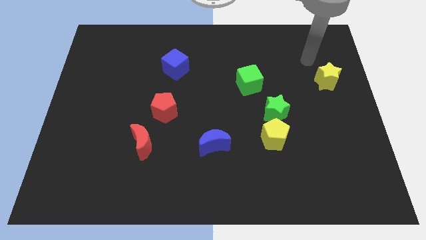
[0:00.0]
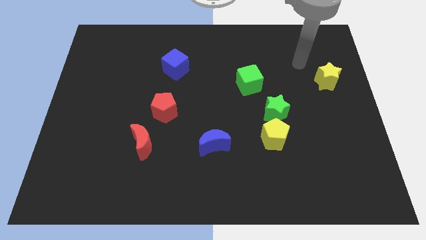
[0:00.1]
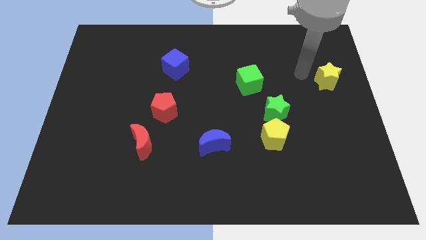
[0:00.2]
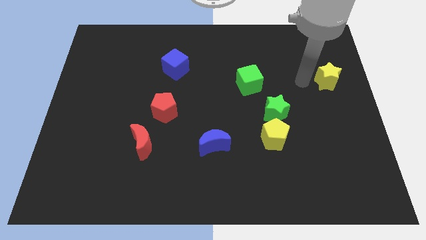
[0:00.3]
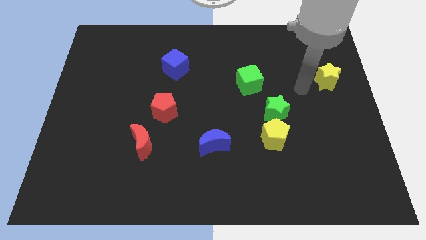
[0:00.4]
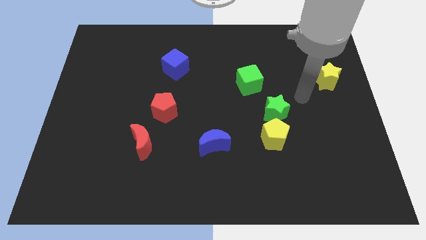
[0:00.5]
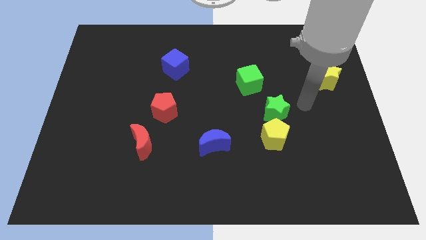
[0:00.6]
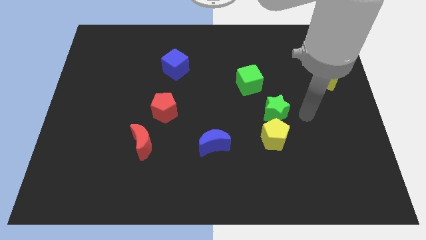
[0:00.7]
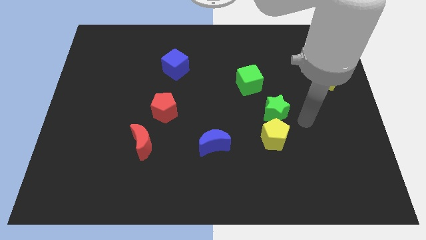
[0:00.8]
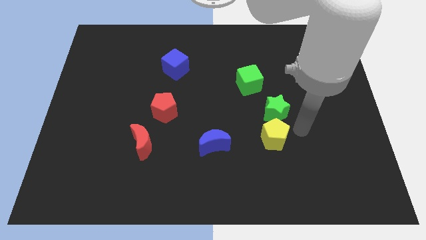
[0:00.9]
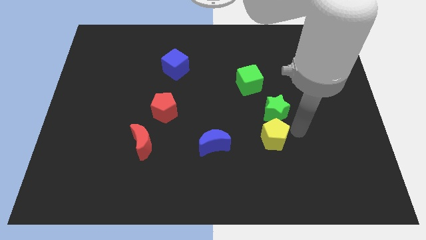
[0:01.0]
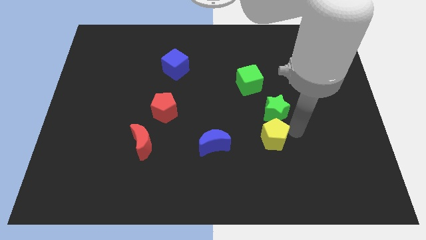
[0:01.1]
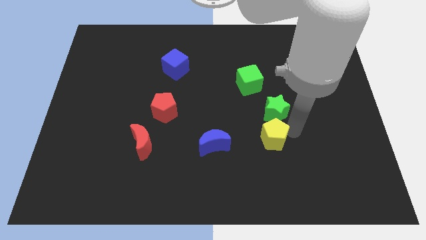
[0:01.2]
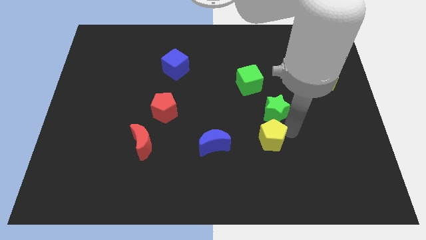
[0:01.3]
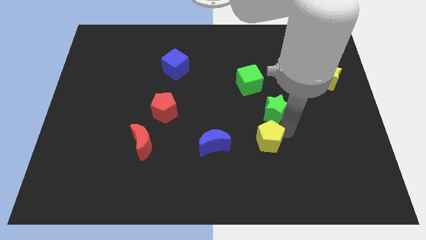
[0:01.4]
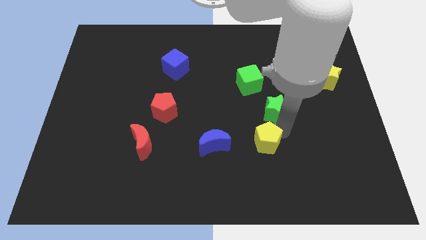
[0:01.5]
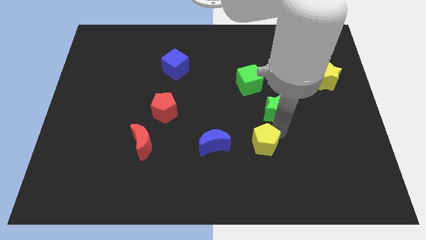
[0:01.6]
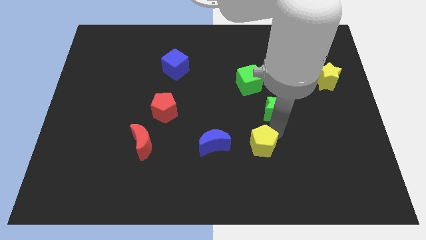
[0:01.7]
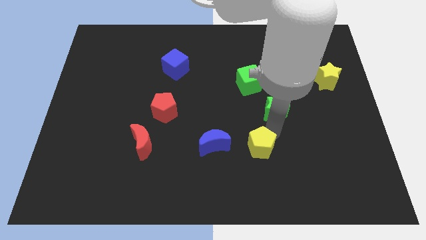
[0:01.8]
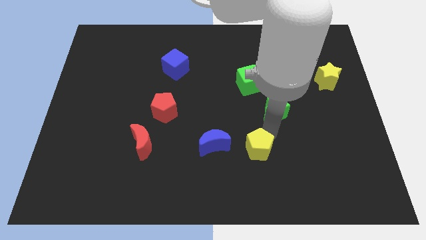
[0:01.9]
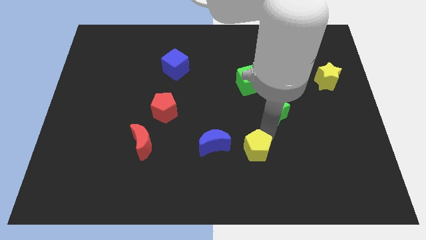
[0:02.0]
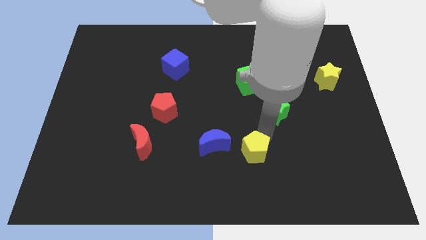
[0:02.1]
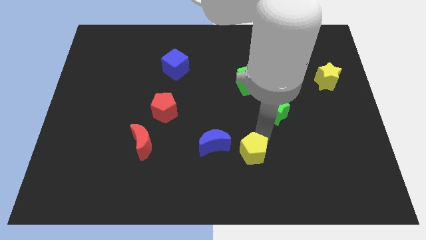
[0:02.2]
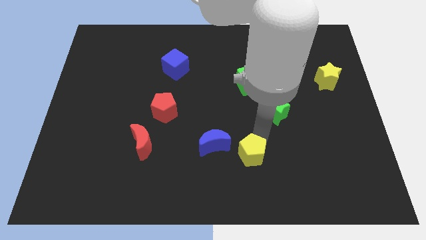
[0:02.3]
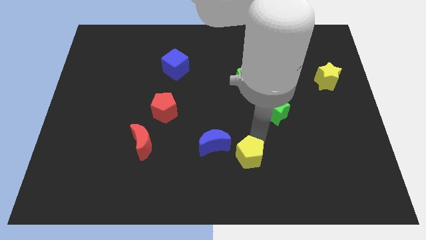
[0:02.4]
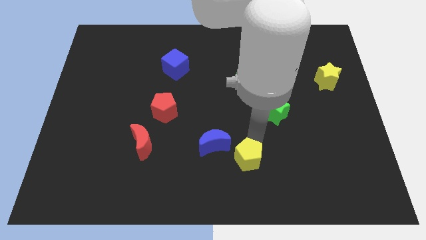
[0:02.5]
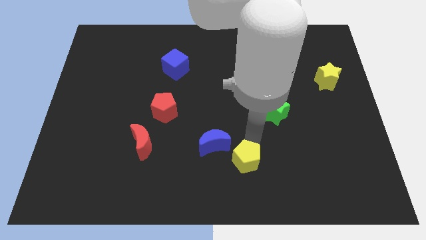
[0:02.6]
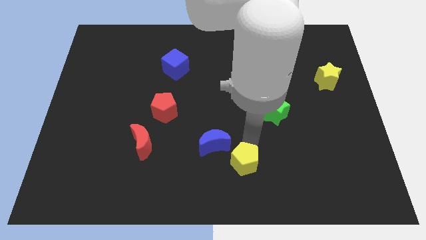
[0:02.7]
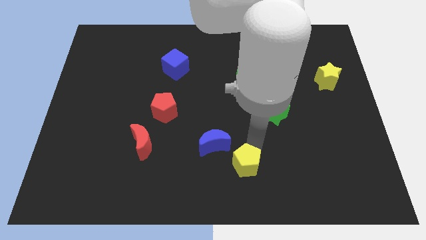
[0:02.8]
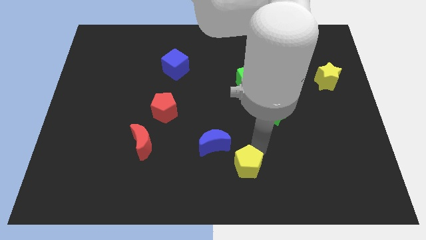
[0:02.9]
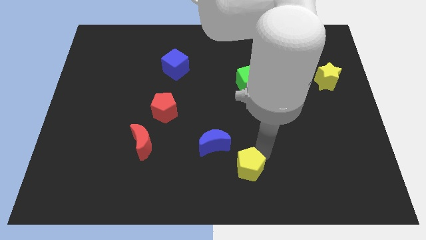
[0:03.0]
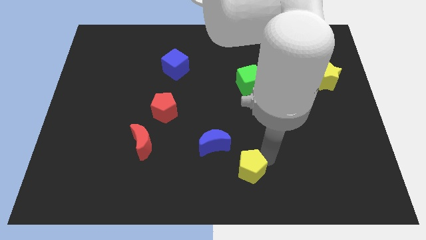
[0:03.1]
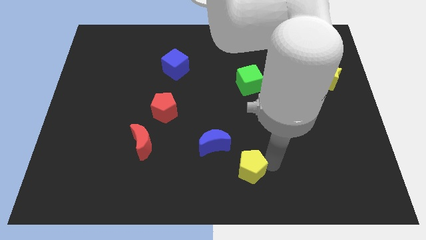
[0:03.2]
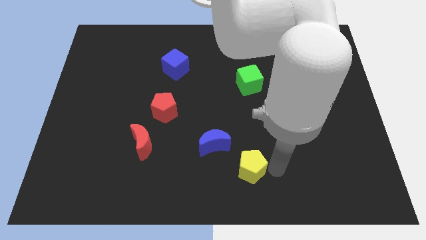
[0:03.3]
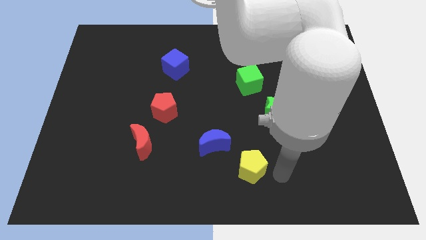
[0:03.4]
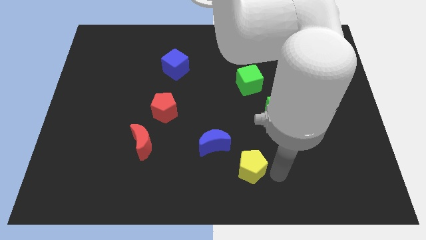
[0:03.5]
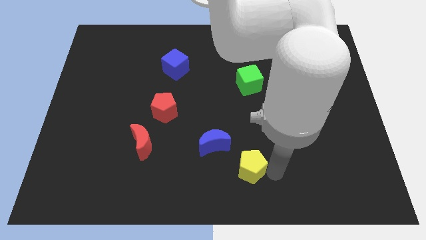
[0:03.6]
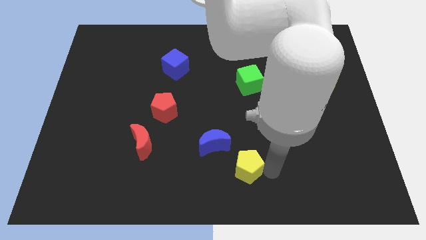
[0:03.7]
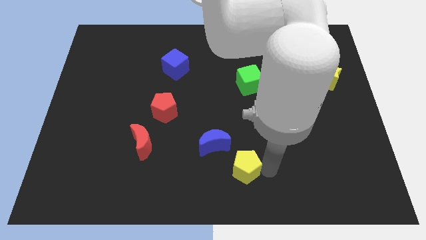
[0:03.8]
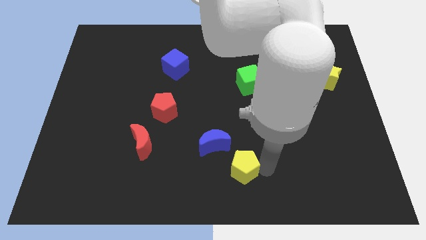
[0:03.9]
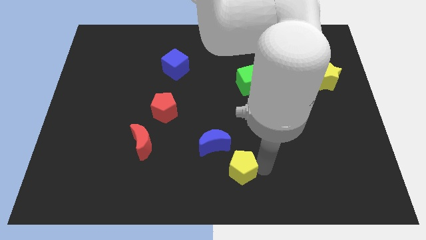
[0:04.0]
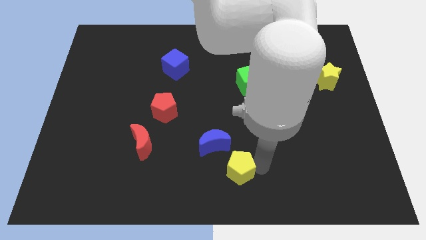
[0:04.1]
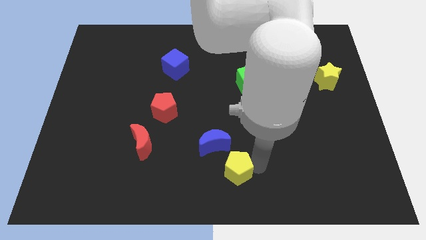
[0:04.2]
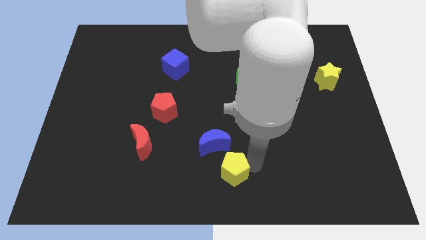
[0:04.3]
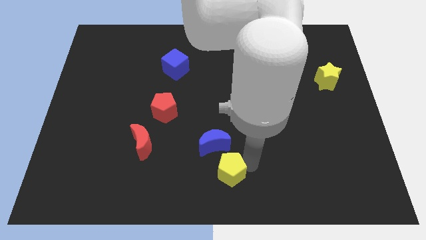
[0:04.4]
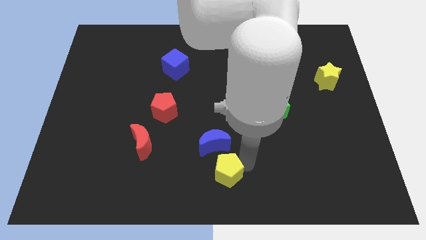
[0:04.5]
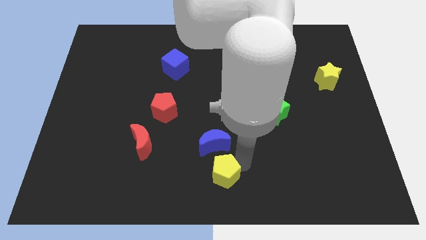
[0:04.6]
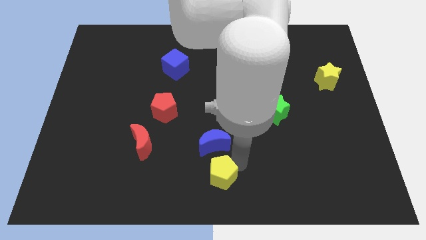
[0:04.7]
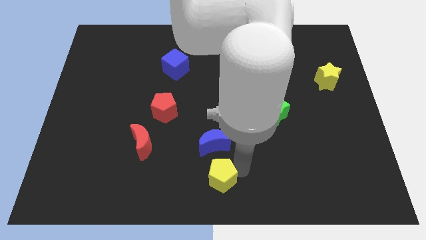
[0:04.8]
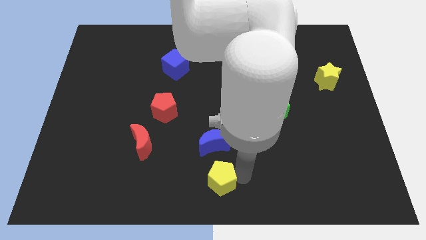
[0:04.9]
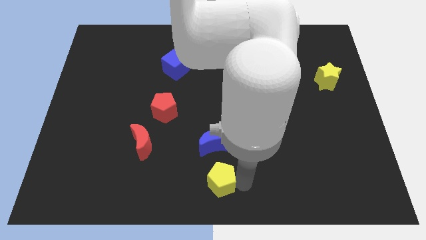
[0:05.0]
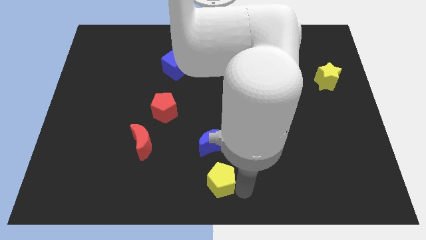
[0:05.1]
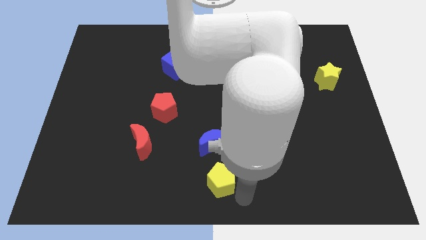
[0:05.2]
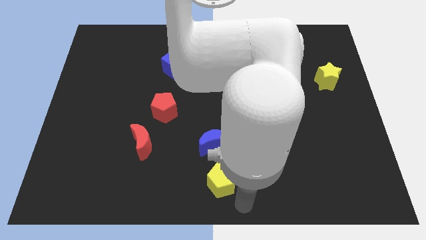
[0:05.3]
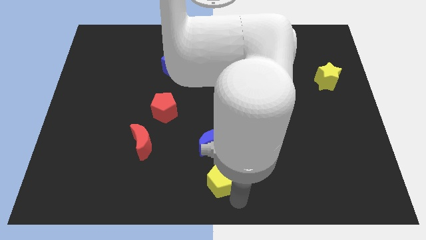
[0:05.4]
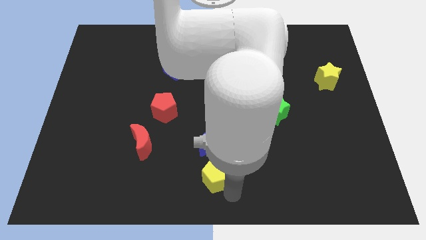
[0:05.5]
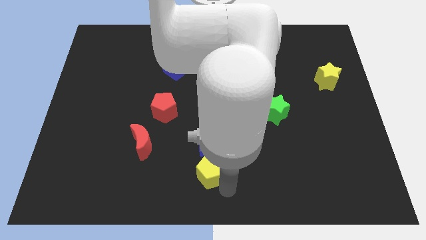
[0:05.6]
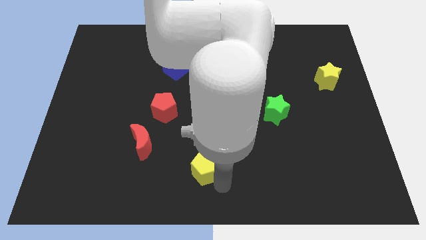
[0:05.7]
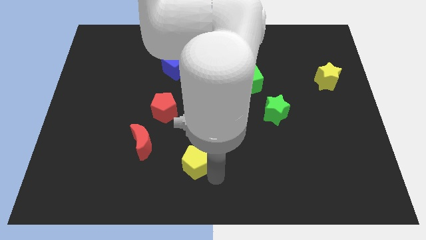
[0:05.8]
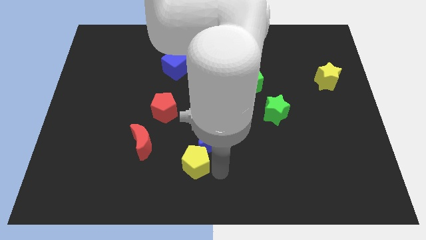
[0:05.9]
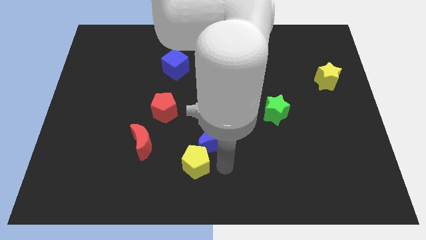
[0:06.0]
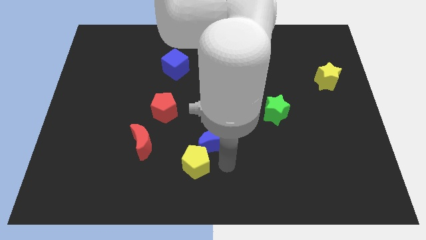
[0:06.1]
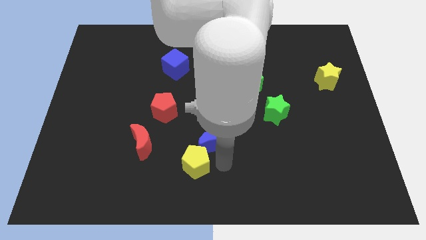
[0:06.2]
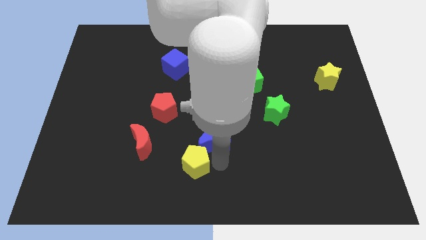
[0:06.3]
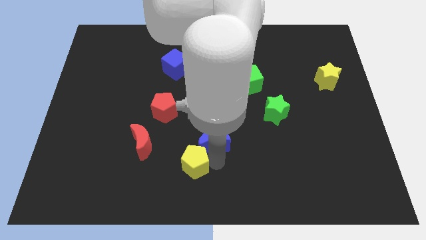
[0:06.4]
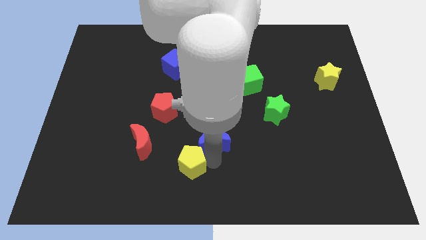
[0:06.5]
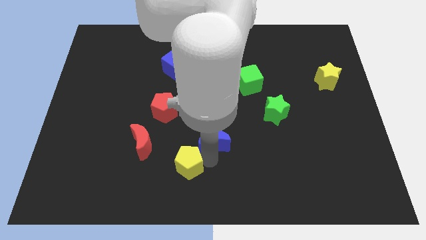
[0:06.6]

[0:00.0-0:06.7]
push the yellow pentagon to the bottom right side of the red moon

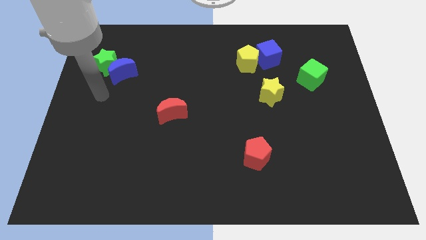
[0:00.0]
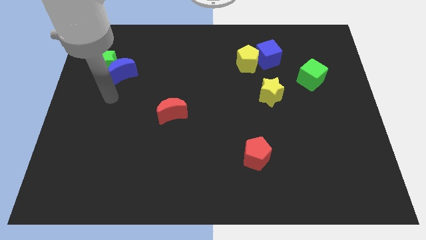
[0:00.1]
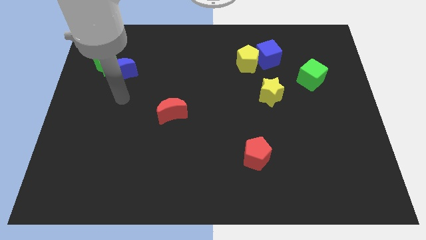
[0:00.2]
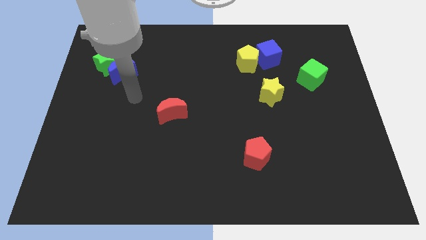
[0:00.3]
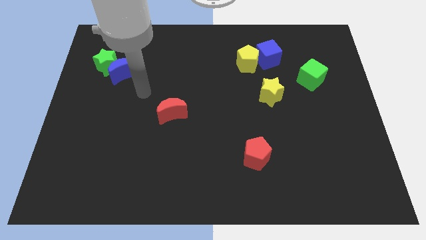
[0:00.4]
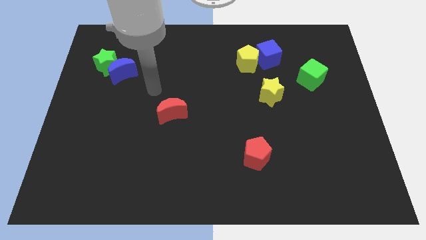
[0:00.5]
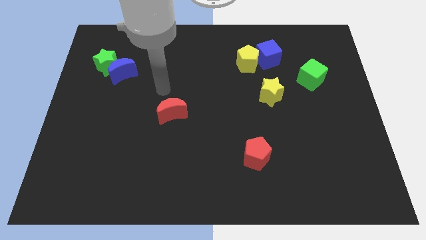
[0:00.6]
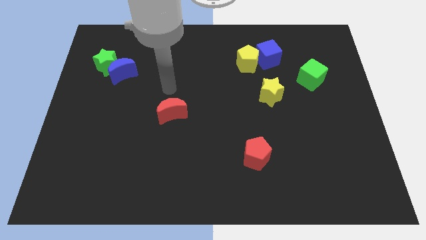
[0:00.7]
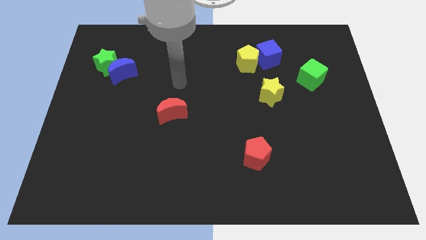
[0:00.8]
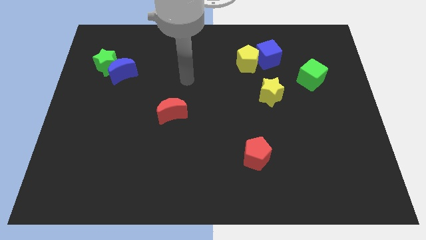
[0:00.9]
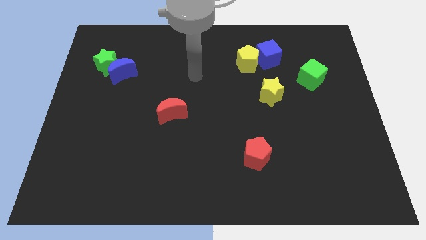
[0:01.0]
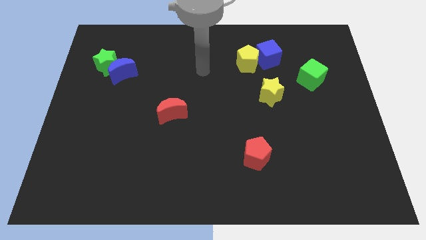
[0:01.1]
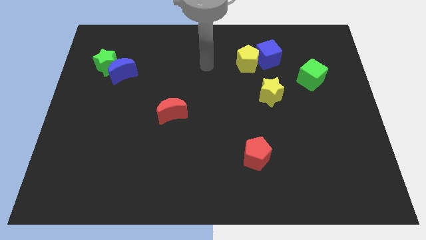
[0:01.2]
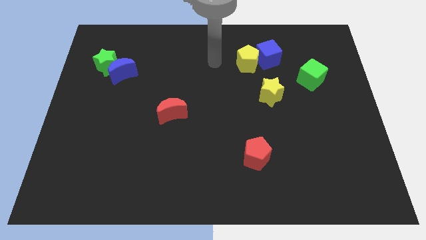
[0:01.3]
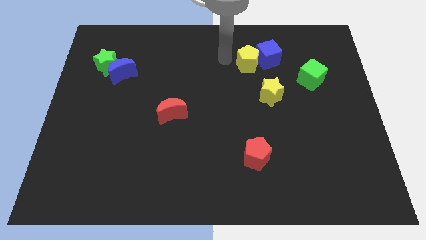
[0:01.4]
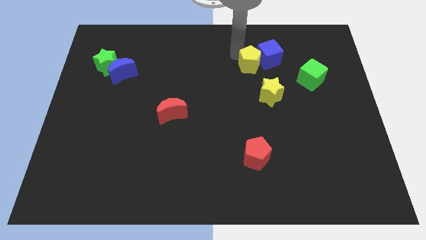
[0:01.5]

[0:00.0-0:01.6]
push the yellow pentagon to the top left of the yellow star
